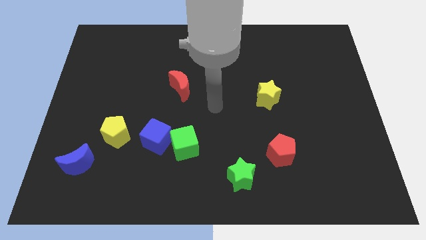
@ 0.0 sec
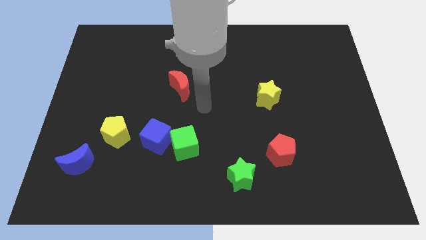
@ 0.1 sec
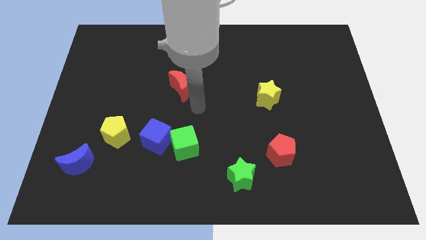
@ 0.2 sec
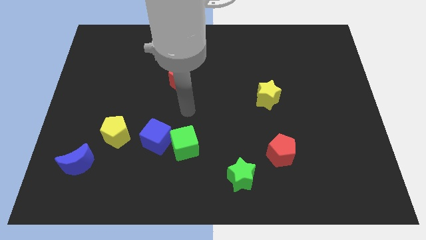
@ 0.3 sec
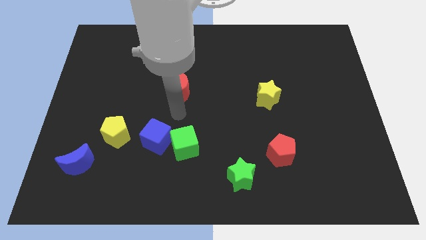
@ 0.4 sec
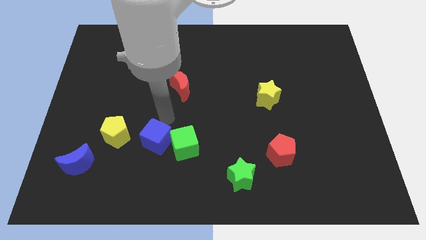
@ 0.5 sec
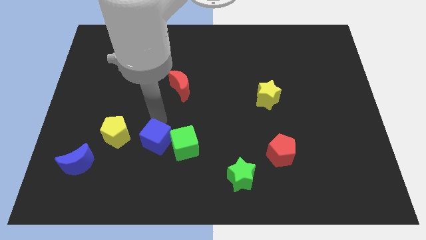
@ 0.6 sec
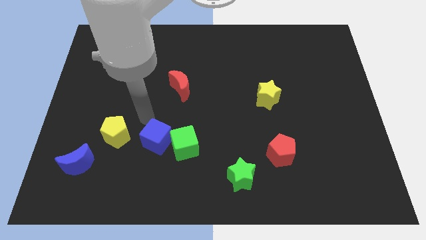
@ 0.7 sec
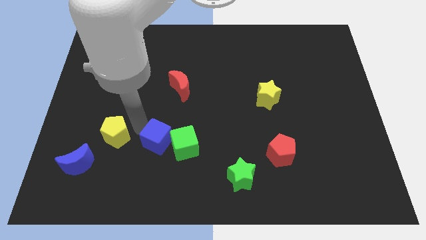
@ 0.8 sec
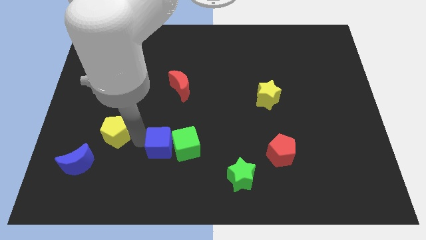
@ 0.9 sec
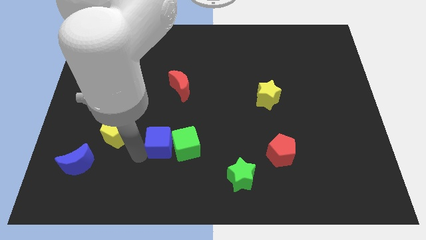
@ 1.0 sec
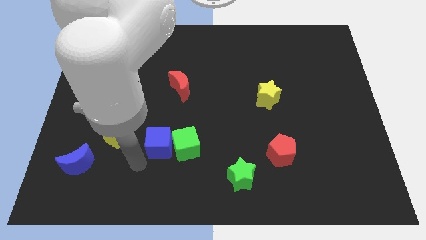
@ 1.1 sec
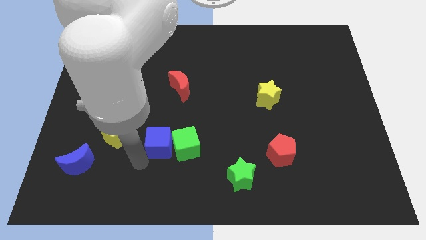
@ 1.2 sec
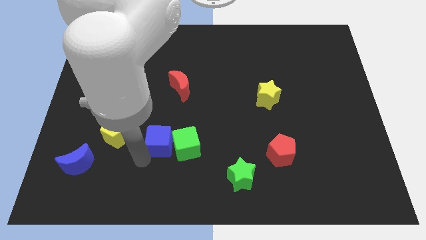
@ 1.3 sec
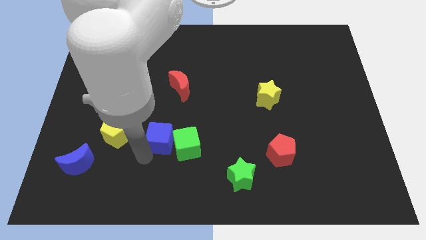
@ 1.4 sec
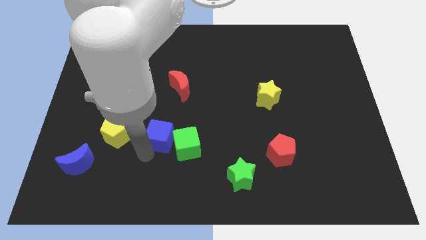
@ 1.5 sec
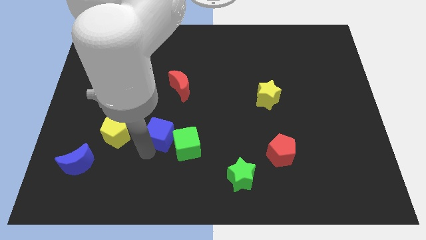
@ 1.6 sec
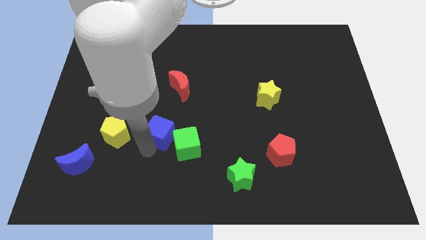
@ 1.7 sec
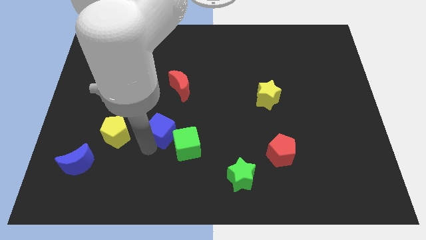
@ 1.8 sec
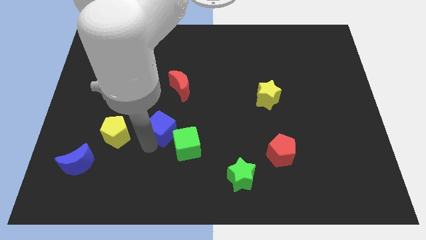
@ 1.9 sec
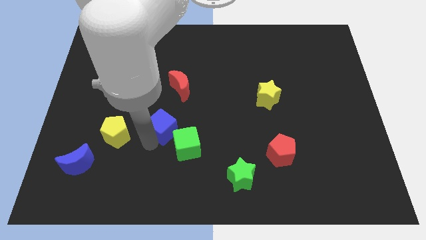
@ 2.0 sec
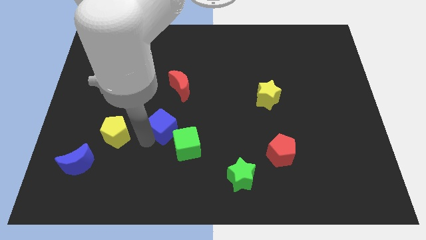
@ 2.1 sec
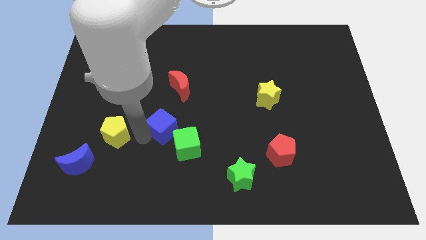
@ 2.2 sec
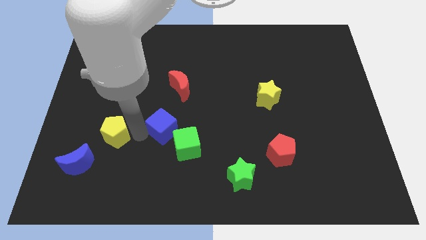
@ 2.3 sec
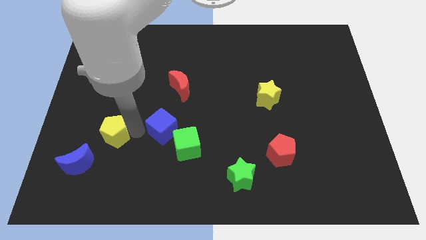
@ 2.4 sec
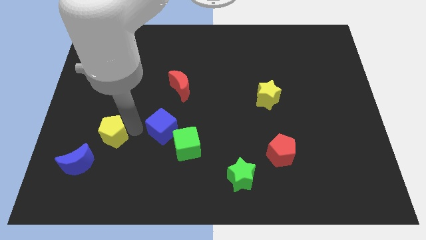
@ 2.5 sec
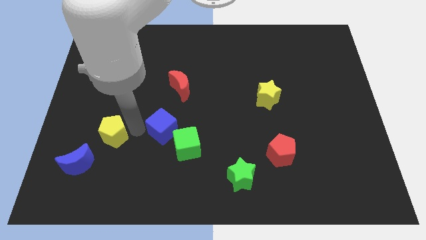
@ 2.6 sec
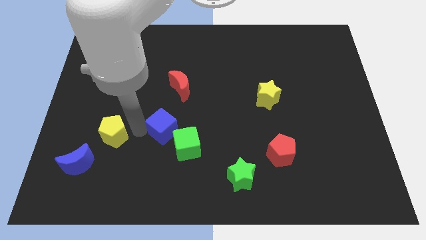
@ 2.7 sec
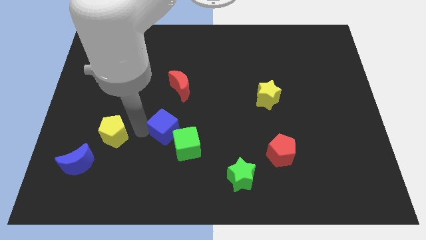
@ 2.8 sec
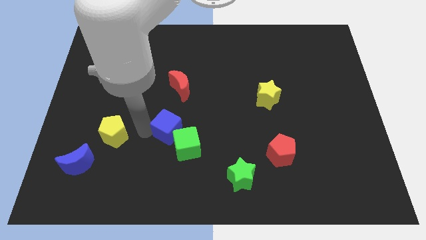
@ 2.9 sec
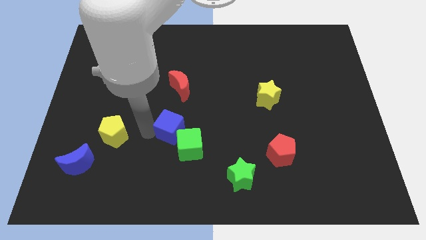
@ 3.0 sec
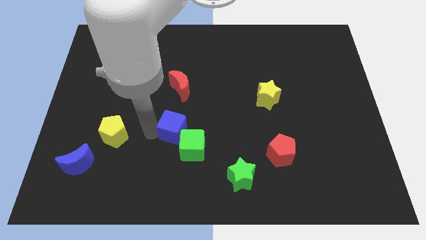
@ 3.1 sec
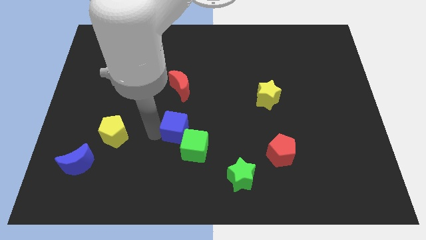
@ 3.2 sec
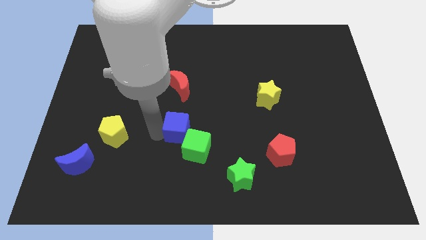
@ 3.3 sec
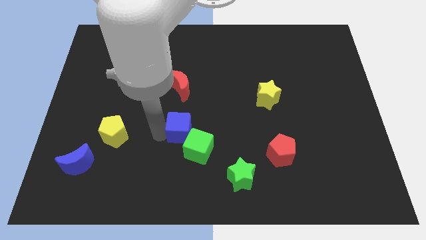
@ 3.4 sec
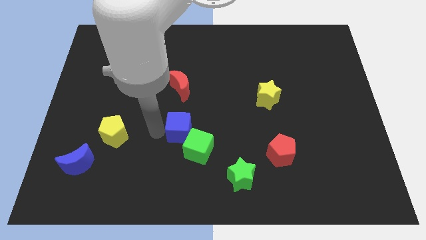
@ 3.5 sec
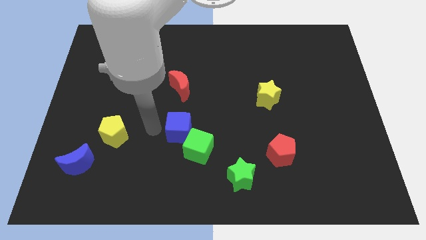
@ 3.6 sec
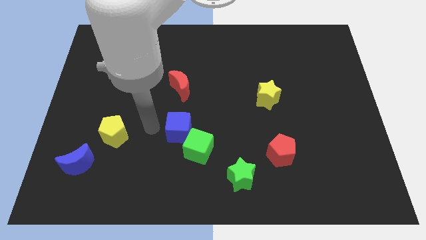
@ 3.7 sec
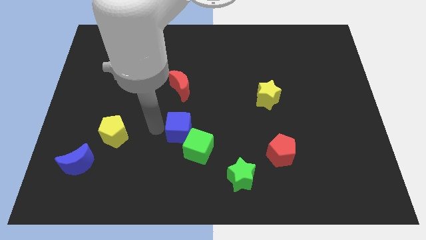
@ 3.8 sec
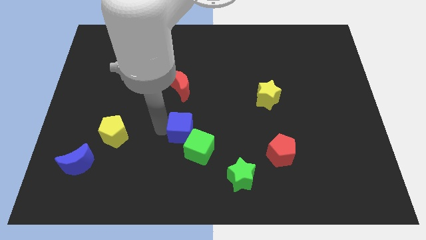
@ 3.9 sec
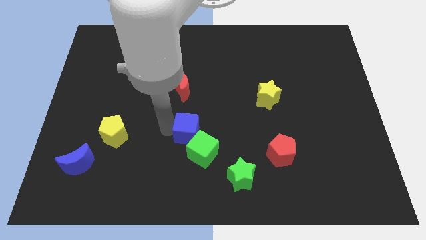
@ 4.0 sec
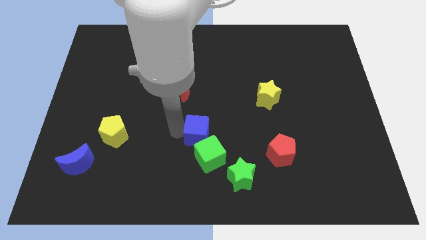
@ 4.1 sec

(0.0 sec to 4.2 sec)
slightly push the blue cube to the right

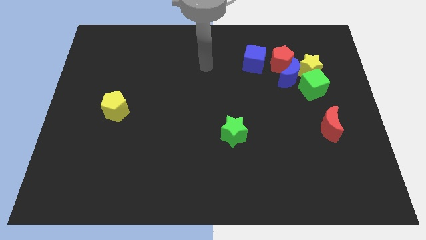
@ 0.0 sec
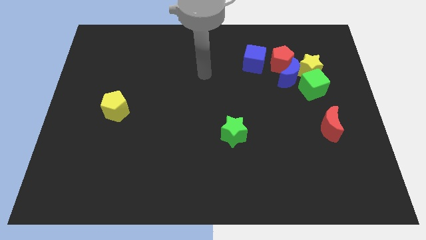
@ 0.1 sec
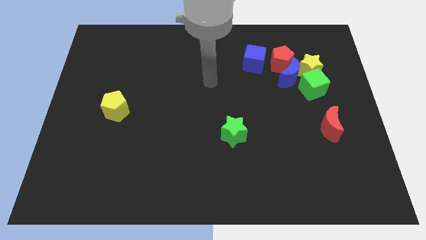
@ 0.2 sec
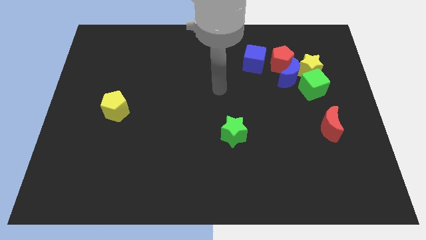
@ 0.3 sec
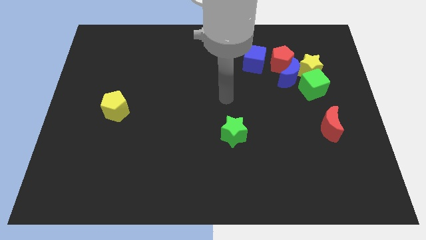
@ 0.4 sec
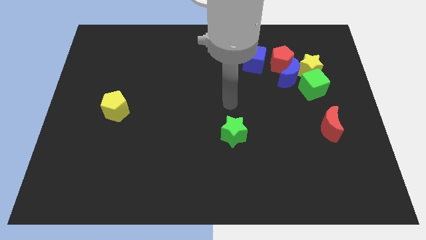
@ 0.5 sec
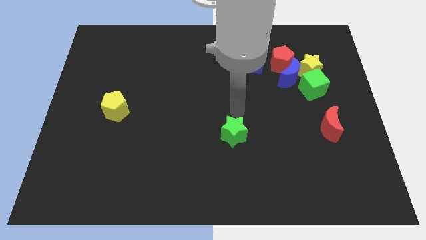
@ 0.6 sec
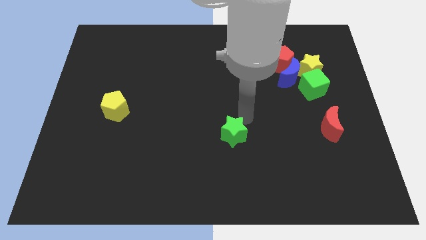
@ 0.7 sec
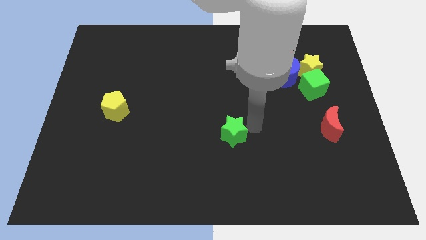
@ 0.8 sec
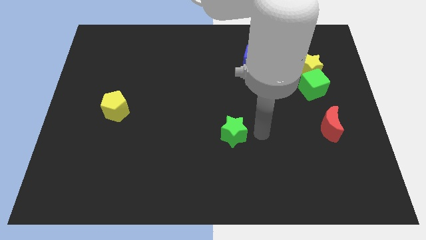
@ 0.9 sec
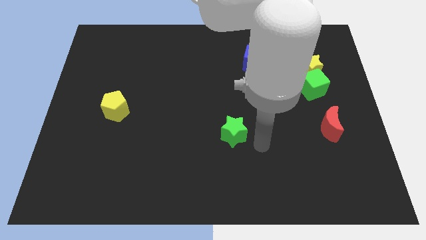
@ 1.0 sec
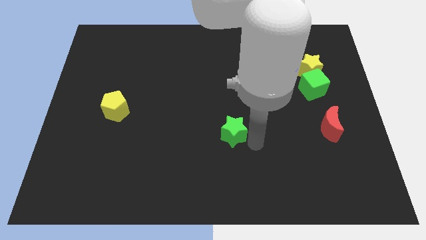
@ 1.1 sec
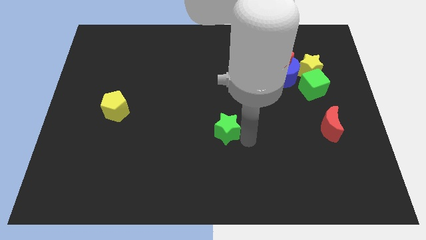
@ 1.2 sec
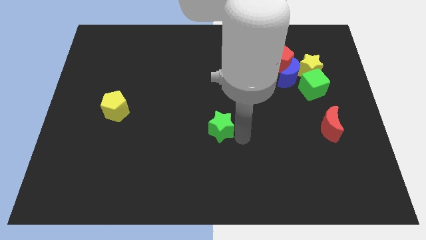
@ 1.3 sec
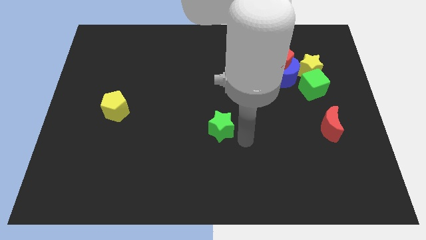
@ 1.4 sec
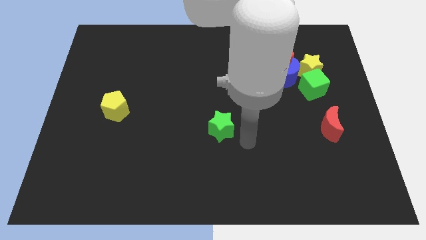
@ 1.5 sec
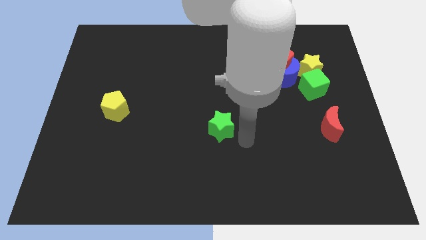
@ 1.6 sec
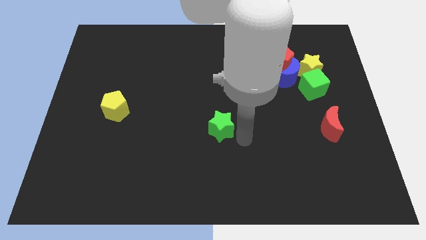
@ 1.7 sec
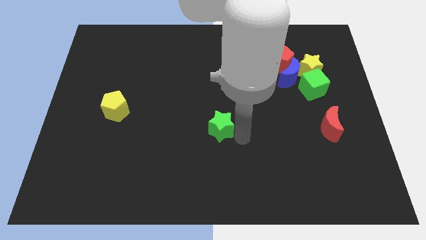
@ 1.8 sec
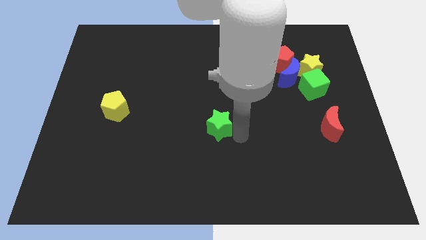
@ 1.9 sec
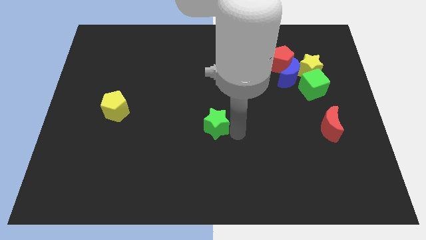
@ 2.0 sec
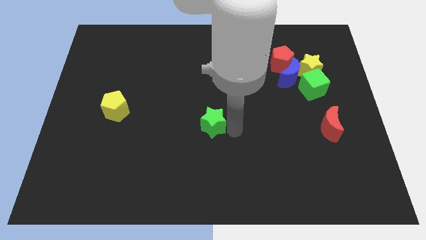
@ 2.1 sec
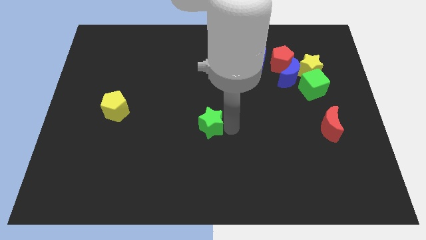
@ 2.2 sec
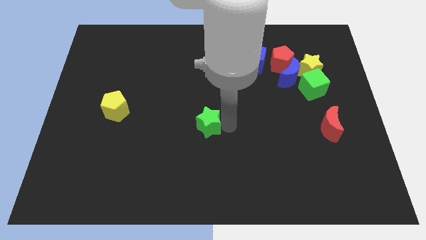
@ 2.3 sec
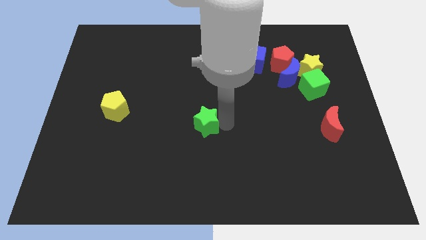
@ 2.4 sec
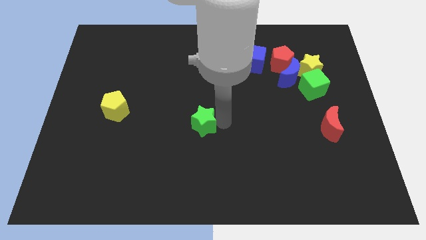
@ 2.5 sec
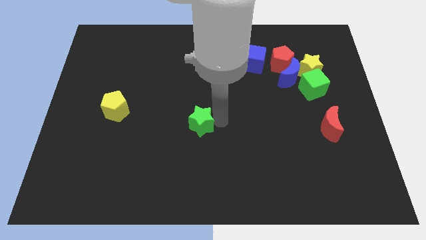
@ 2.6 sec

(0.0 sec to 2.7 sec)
slightly push the green star up and left diagonally

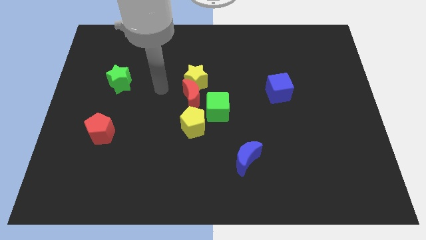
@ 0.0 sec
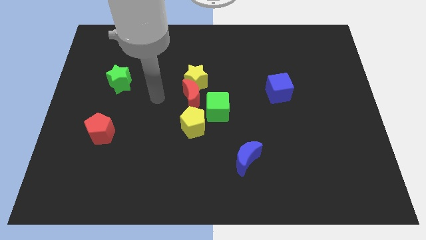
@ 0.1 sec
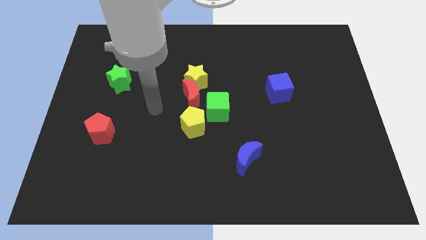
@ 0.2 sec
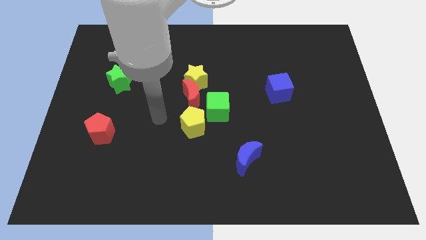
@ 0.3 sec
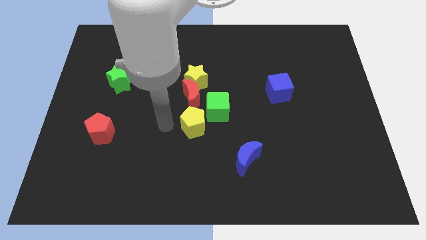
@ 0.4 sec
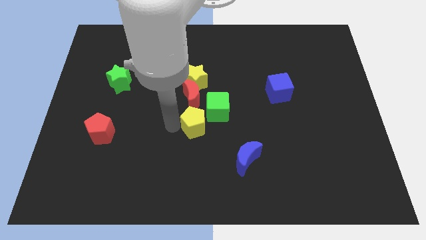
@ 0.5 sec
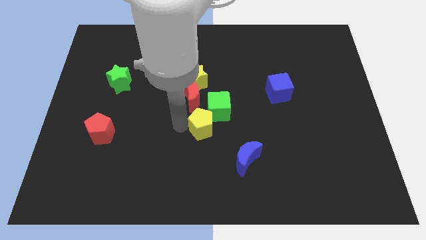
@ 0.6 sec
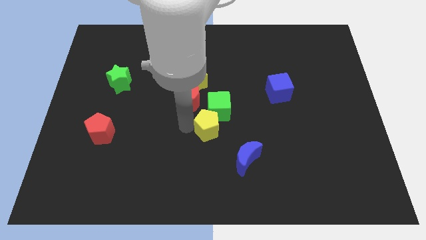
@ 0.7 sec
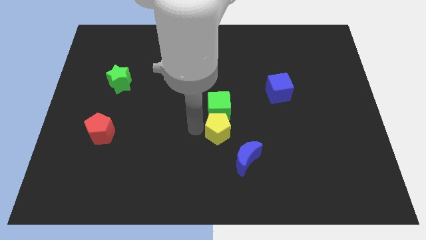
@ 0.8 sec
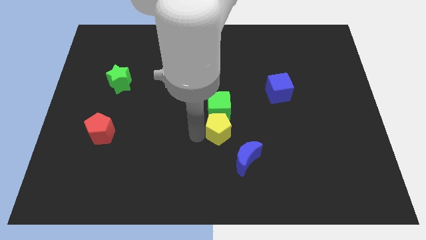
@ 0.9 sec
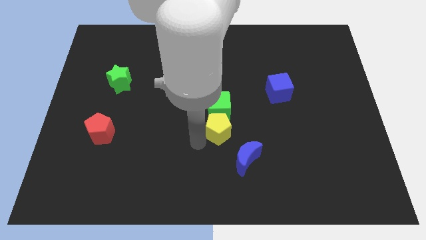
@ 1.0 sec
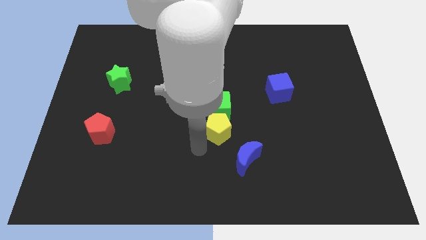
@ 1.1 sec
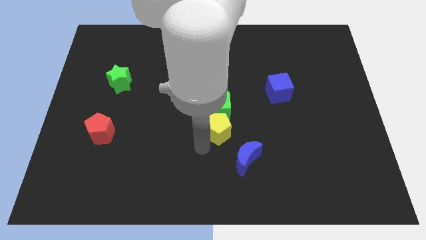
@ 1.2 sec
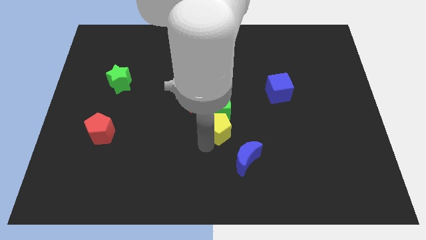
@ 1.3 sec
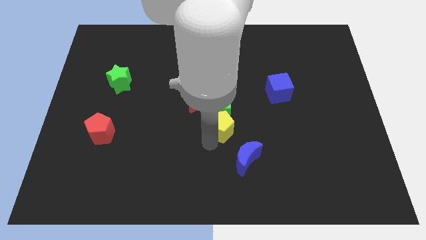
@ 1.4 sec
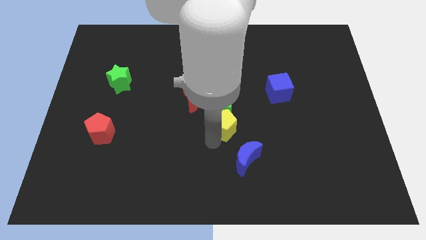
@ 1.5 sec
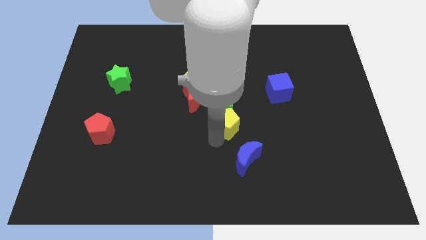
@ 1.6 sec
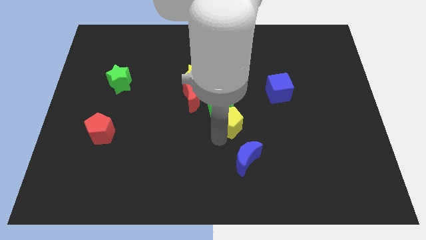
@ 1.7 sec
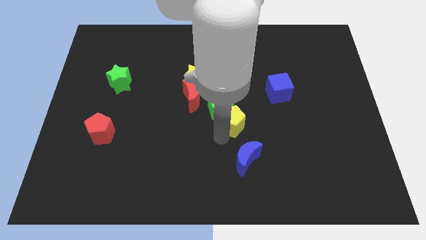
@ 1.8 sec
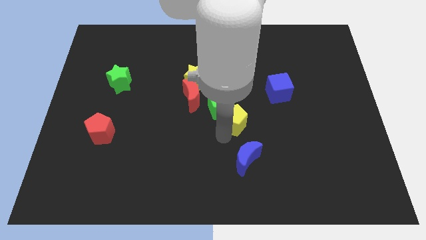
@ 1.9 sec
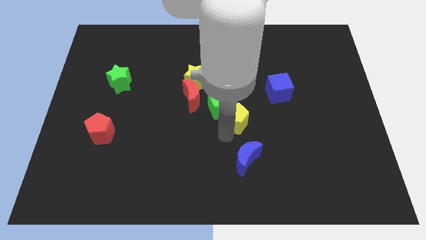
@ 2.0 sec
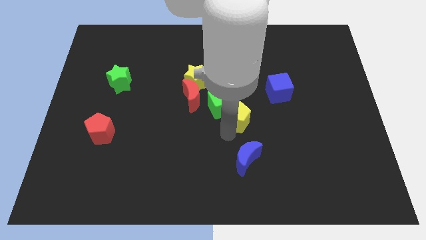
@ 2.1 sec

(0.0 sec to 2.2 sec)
move the yellow pentagon a little upwards and then right
